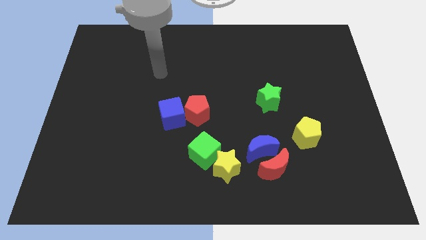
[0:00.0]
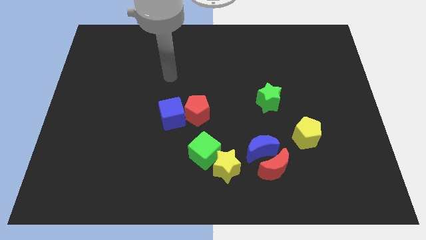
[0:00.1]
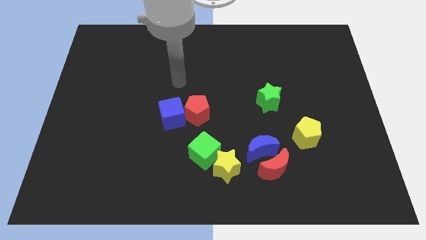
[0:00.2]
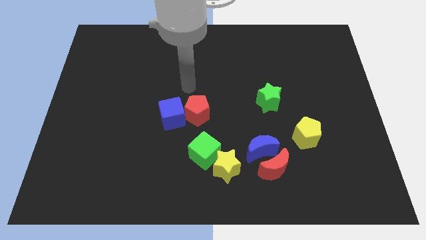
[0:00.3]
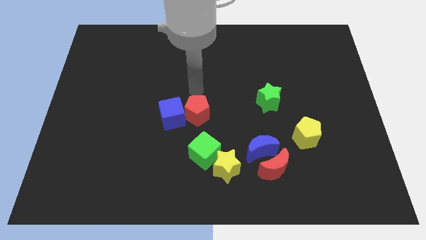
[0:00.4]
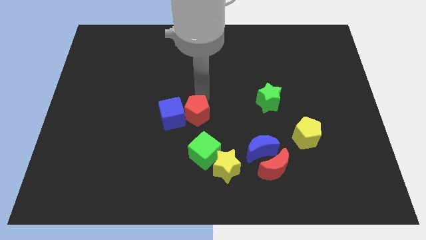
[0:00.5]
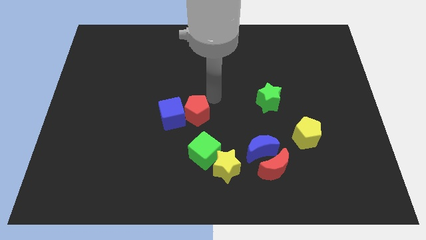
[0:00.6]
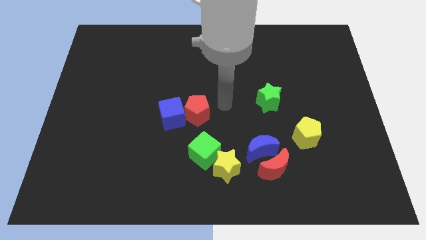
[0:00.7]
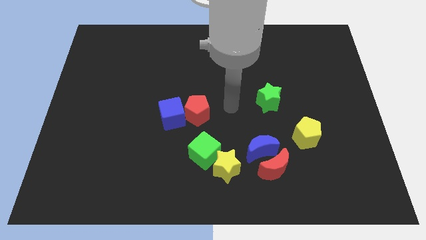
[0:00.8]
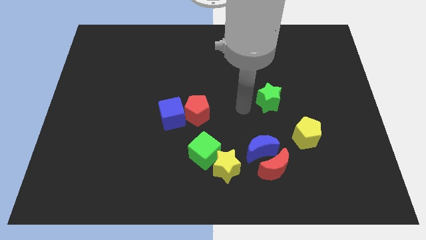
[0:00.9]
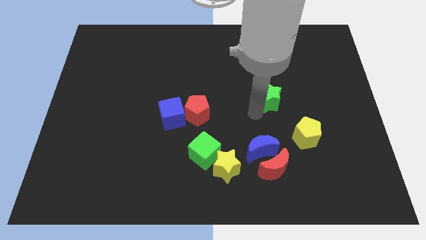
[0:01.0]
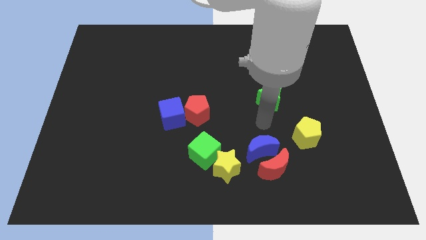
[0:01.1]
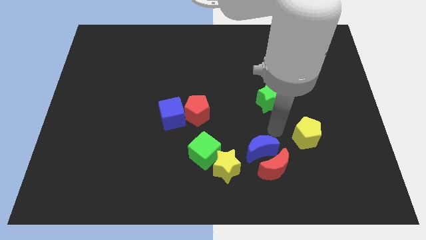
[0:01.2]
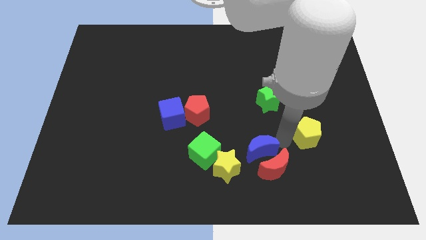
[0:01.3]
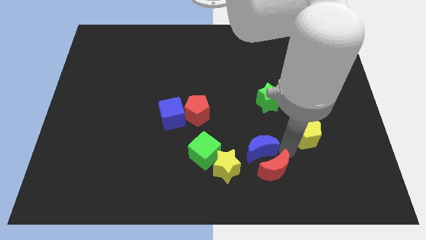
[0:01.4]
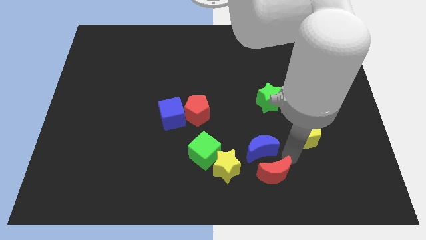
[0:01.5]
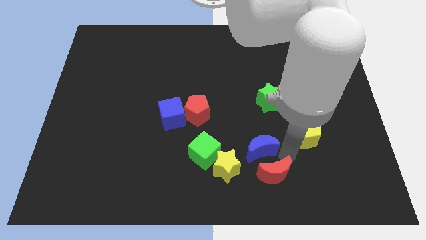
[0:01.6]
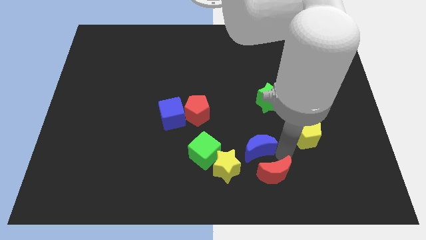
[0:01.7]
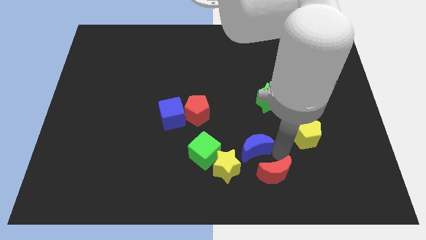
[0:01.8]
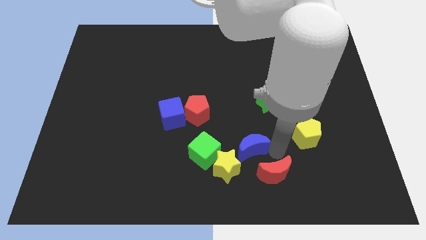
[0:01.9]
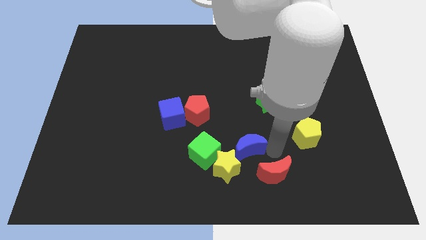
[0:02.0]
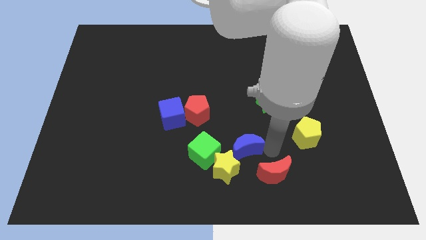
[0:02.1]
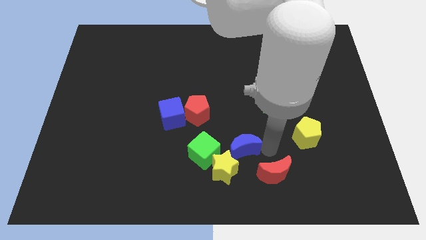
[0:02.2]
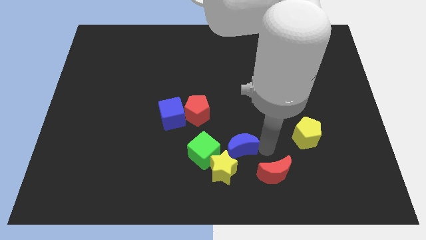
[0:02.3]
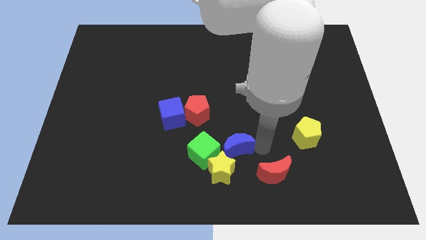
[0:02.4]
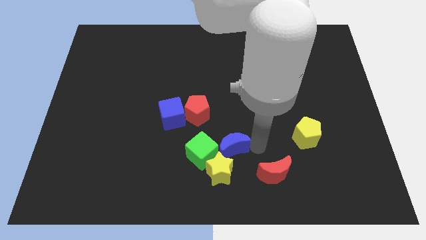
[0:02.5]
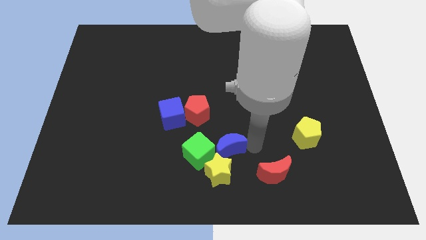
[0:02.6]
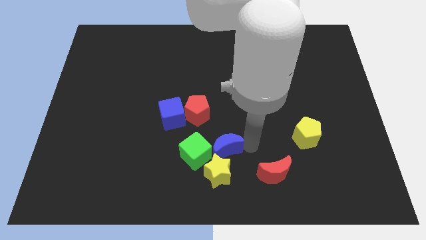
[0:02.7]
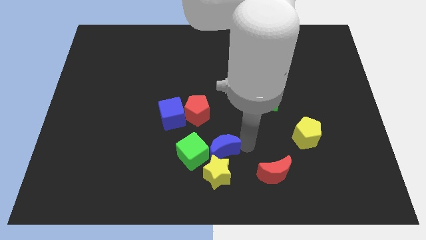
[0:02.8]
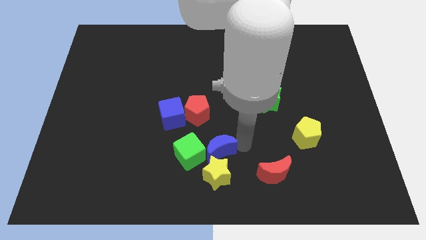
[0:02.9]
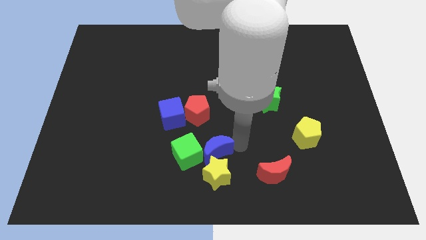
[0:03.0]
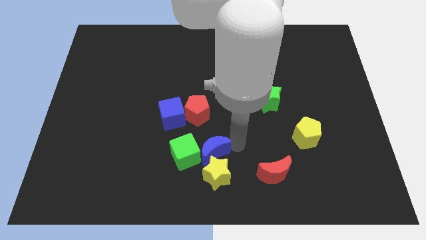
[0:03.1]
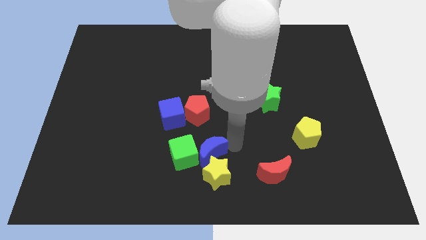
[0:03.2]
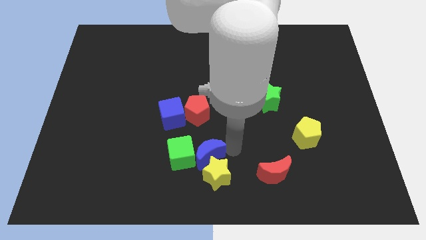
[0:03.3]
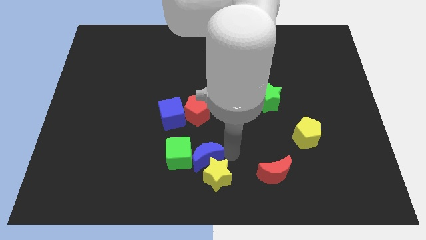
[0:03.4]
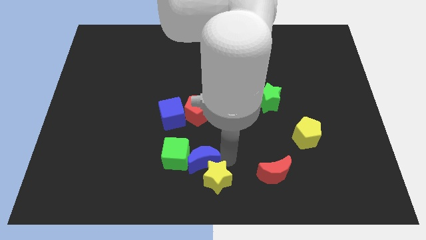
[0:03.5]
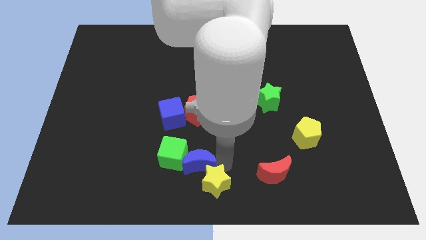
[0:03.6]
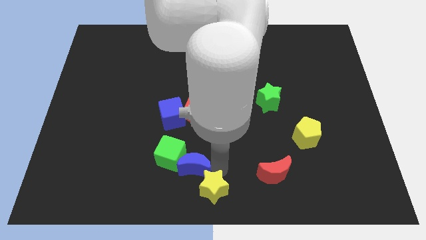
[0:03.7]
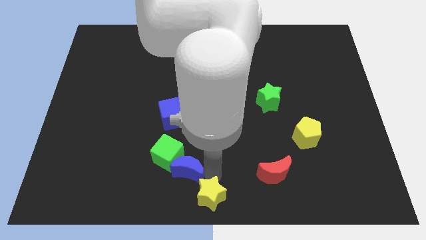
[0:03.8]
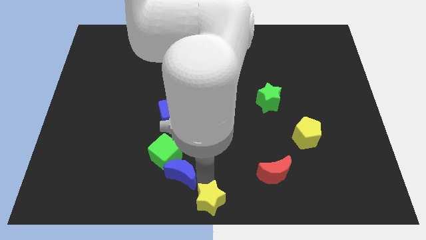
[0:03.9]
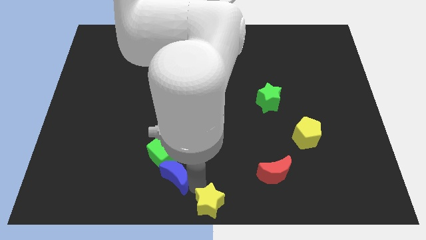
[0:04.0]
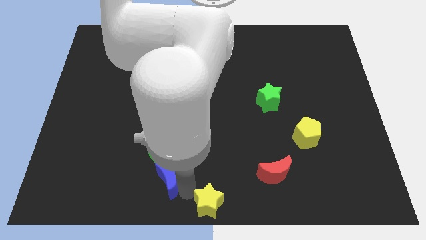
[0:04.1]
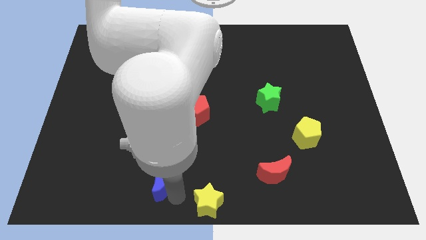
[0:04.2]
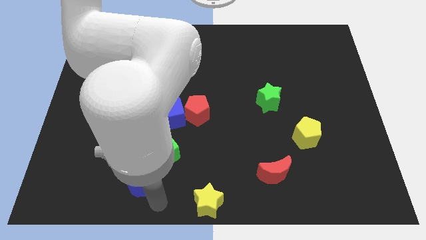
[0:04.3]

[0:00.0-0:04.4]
move the blue moon to the left

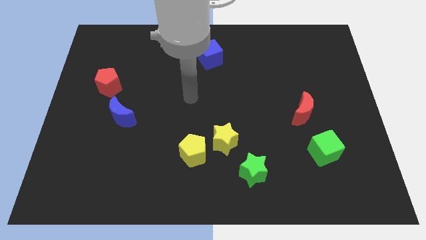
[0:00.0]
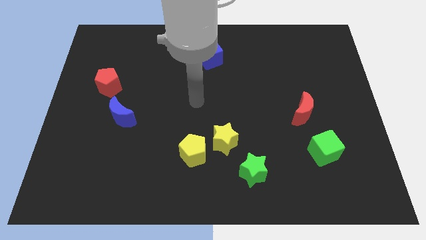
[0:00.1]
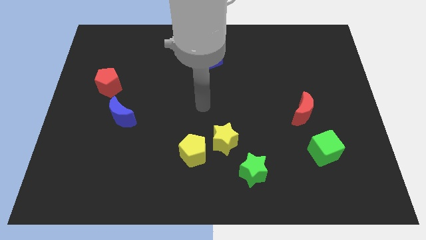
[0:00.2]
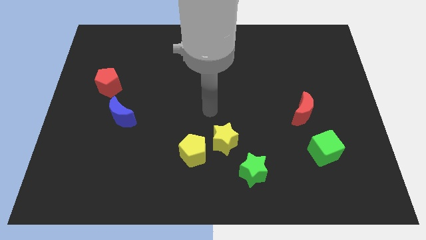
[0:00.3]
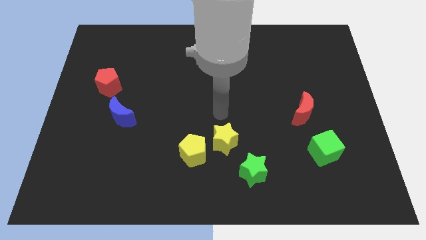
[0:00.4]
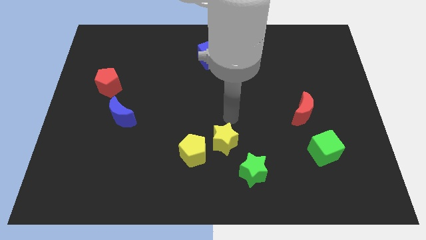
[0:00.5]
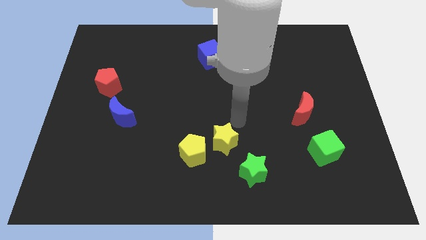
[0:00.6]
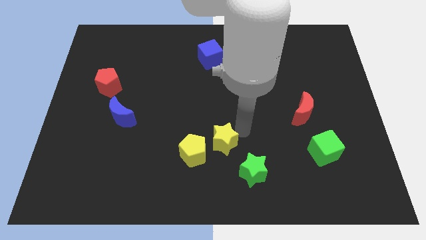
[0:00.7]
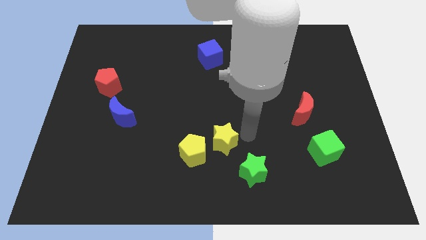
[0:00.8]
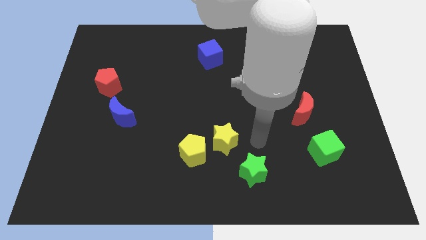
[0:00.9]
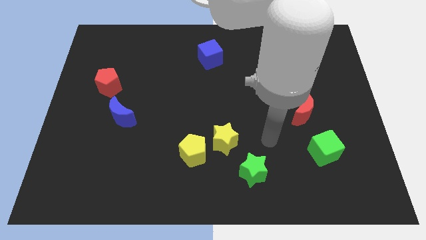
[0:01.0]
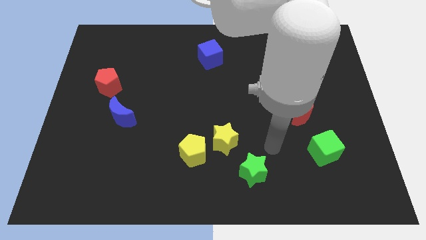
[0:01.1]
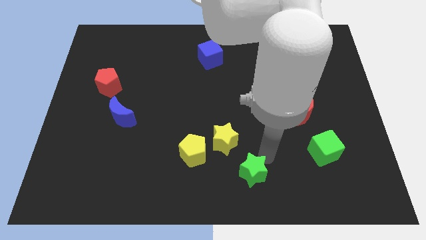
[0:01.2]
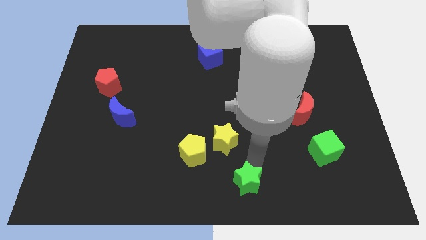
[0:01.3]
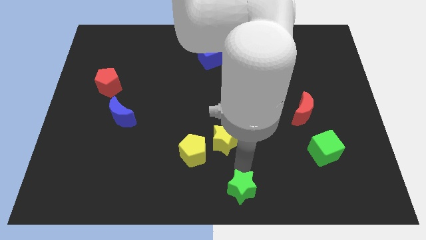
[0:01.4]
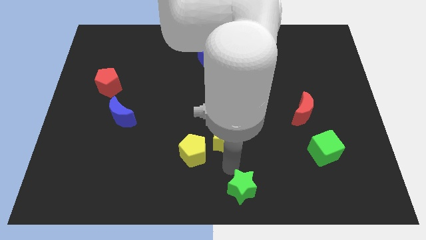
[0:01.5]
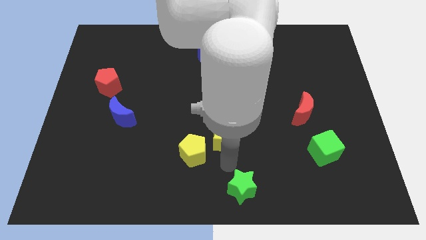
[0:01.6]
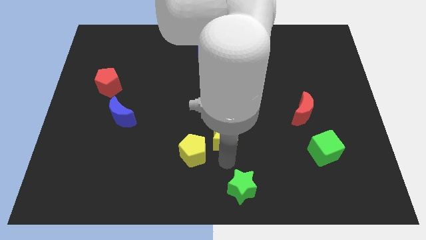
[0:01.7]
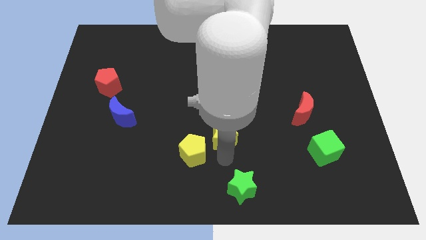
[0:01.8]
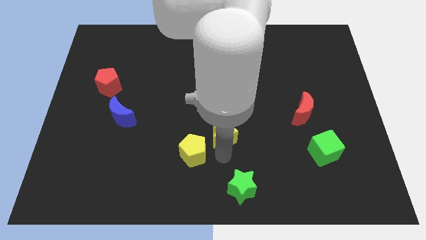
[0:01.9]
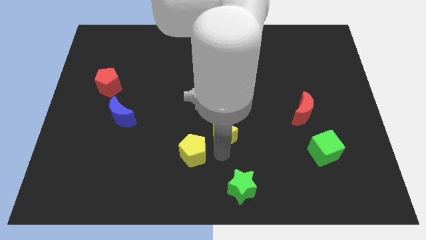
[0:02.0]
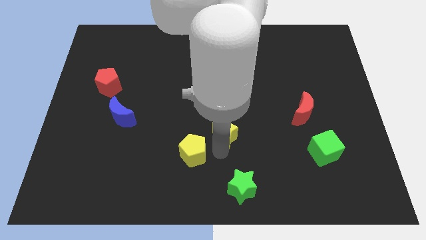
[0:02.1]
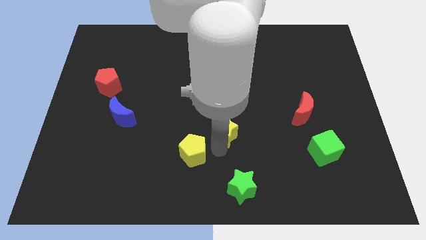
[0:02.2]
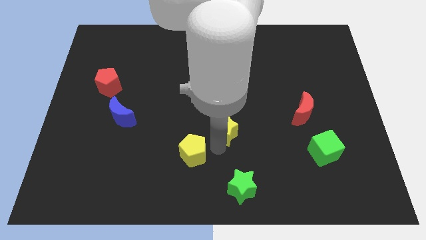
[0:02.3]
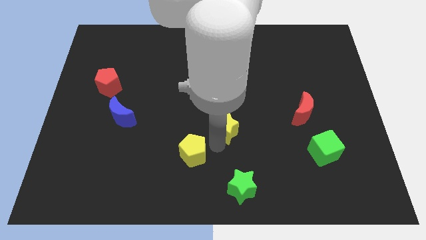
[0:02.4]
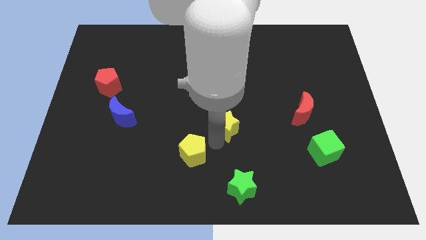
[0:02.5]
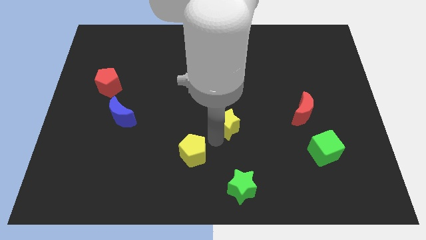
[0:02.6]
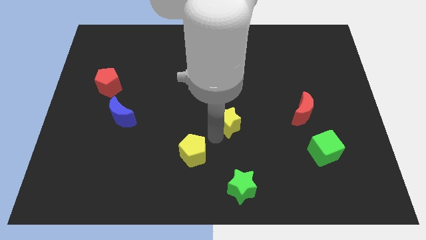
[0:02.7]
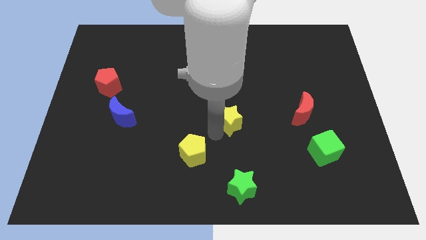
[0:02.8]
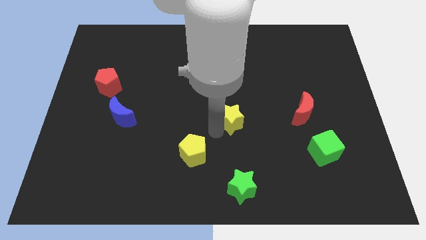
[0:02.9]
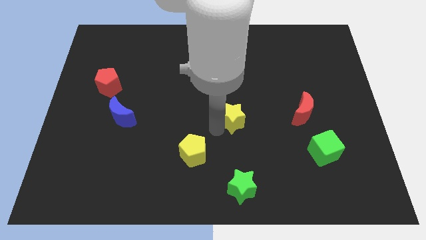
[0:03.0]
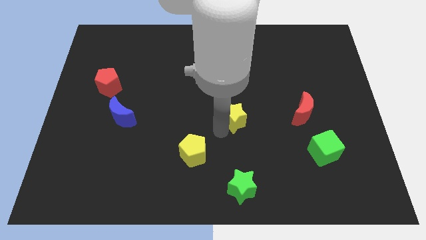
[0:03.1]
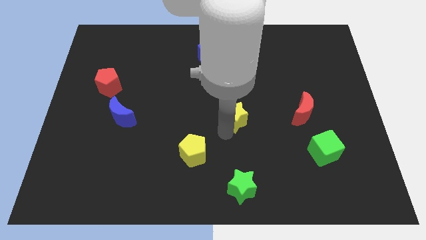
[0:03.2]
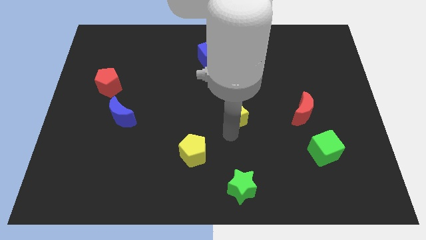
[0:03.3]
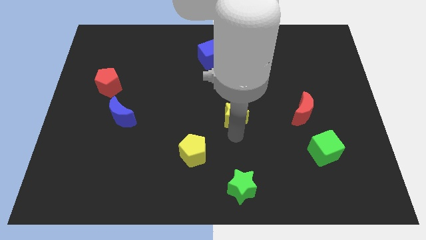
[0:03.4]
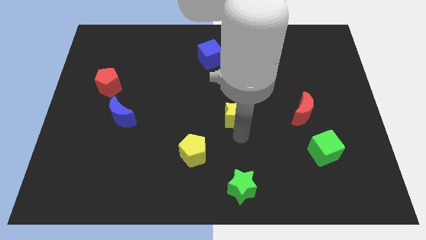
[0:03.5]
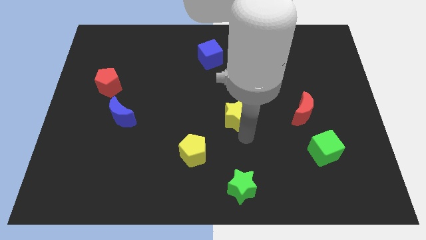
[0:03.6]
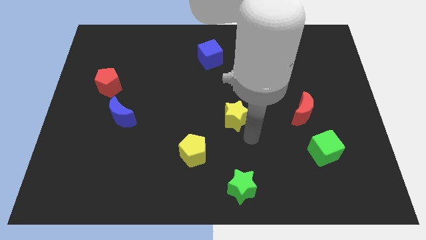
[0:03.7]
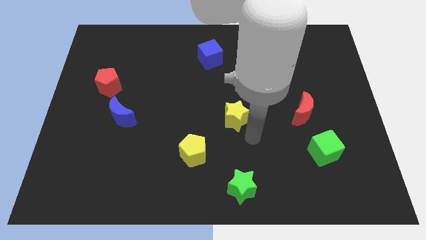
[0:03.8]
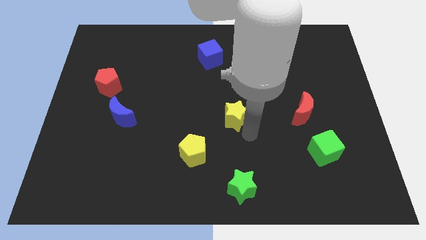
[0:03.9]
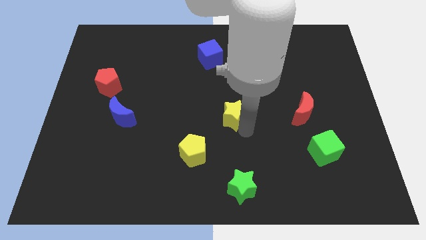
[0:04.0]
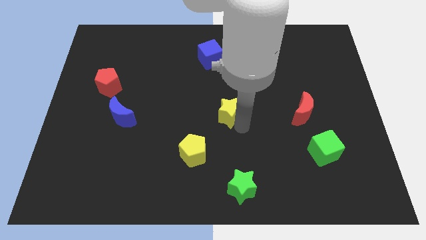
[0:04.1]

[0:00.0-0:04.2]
push the yellow star a bit upwards
